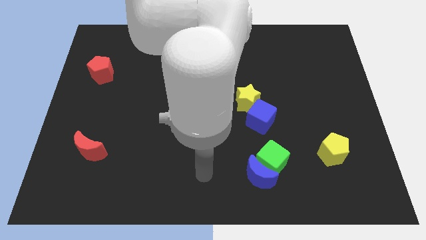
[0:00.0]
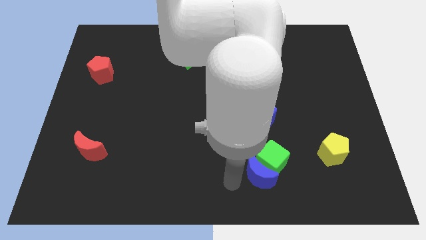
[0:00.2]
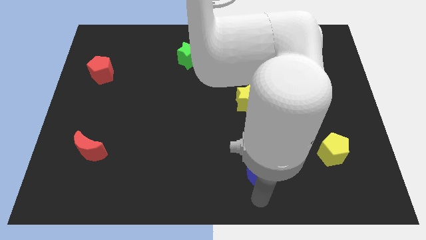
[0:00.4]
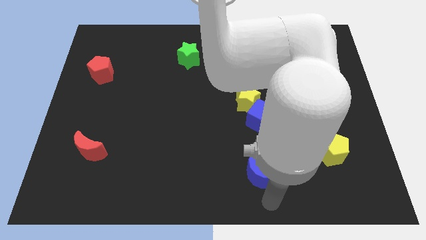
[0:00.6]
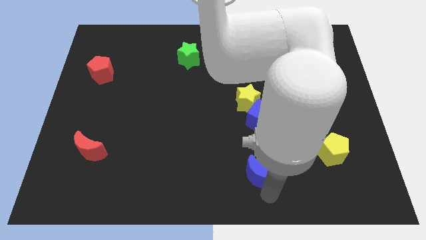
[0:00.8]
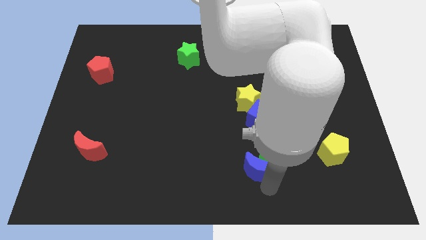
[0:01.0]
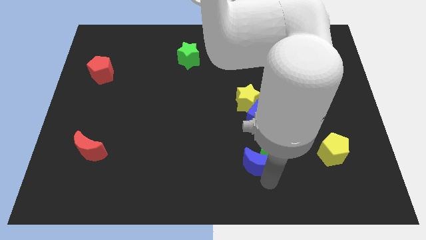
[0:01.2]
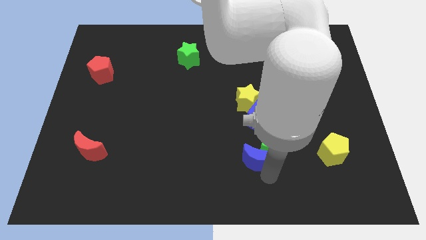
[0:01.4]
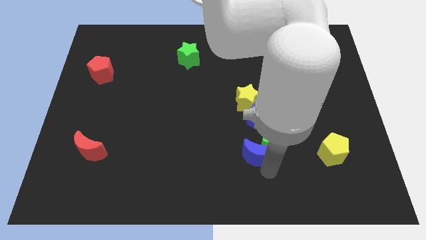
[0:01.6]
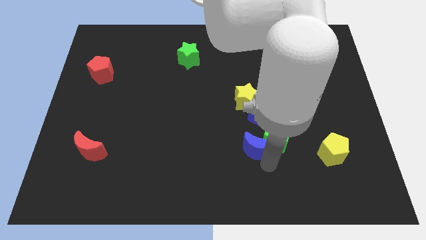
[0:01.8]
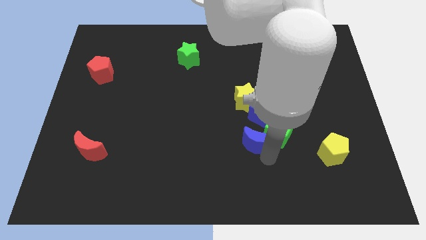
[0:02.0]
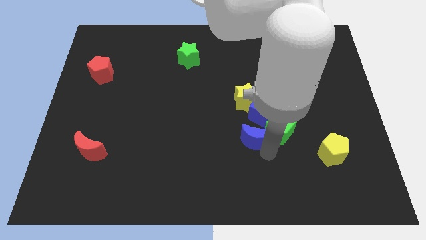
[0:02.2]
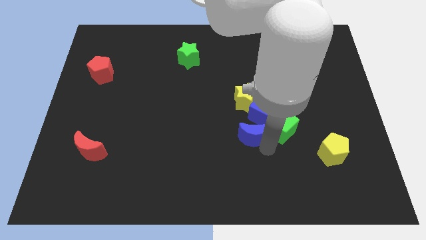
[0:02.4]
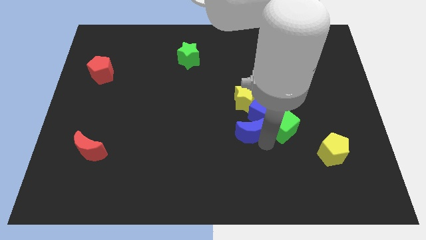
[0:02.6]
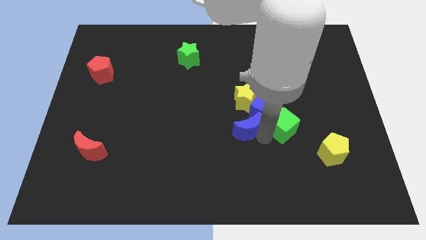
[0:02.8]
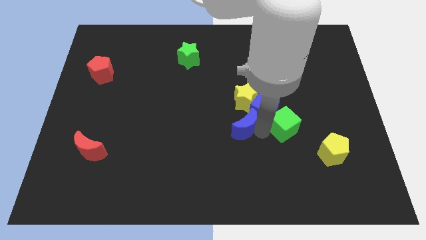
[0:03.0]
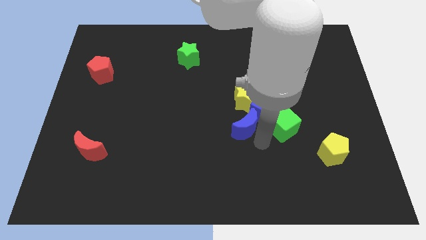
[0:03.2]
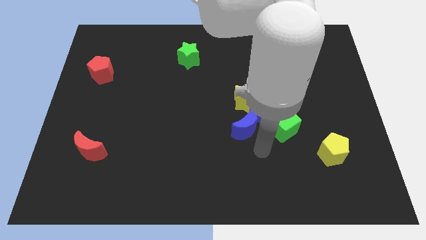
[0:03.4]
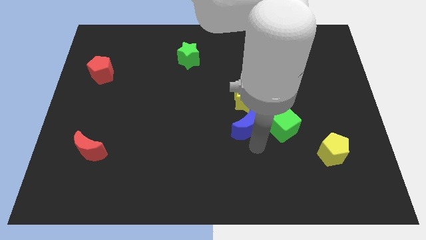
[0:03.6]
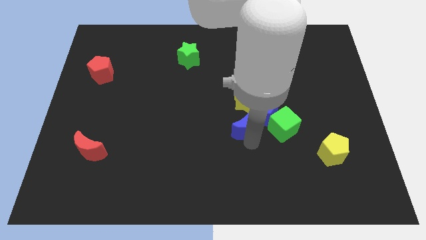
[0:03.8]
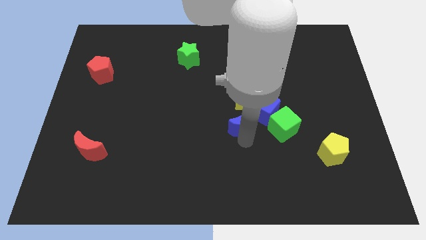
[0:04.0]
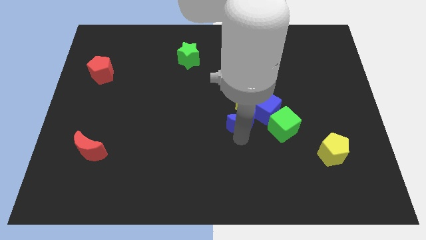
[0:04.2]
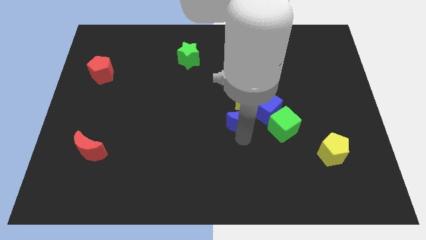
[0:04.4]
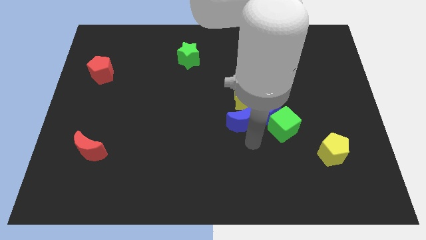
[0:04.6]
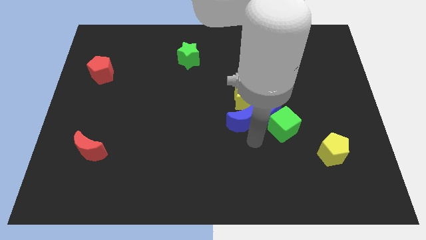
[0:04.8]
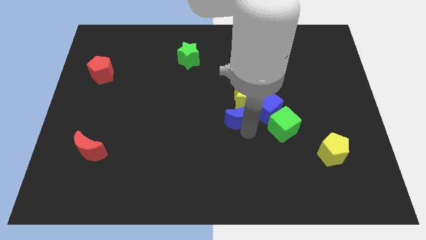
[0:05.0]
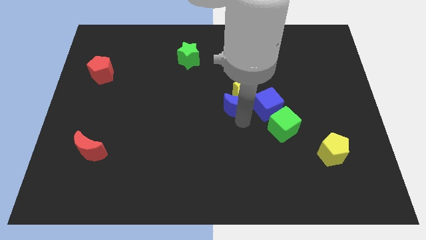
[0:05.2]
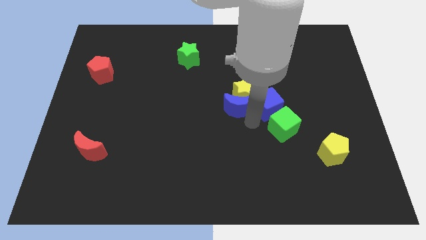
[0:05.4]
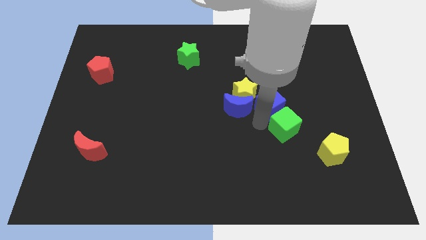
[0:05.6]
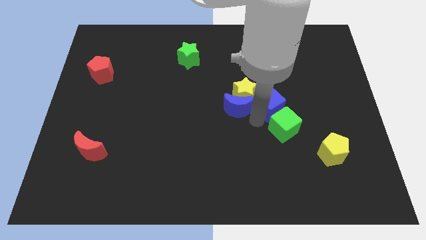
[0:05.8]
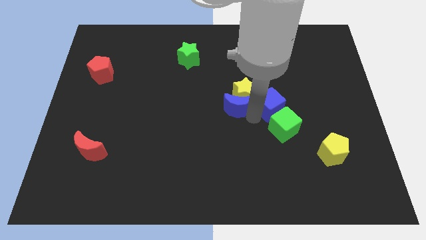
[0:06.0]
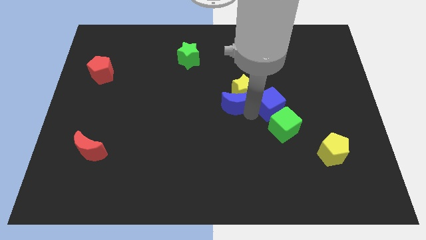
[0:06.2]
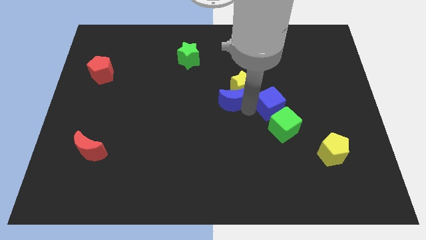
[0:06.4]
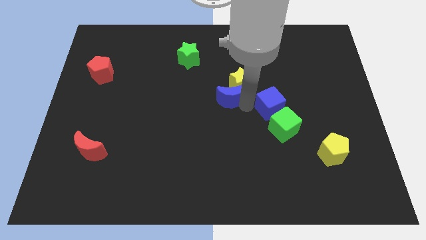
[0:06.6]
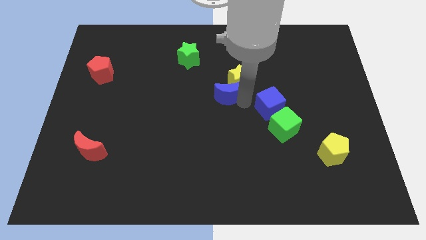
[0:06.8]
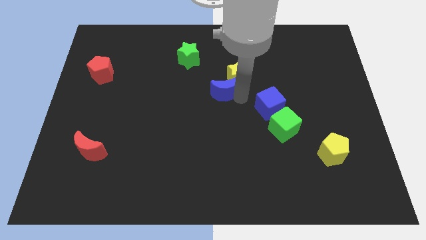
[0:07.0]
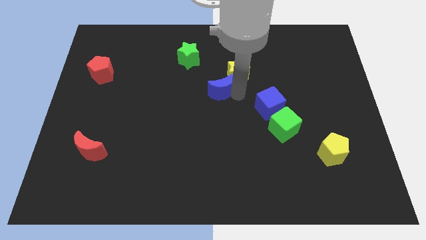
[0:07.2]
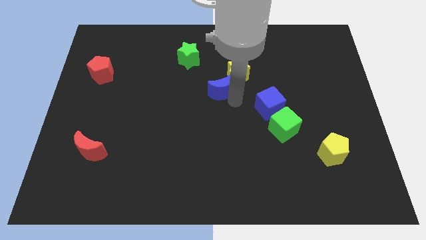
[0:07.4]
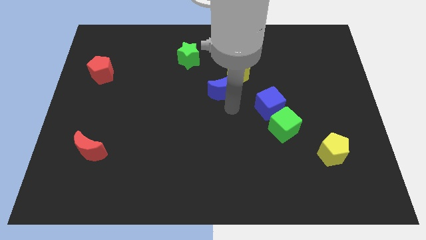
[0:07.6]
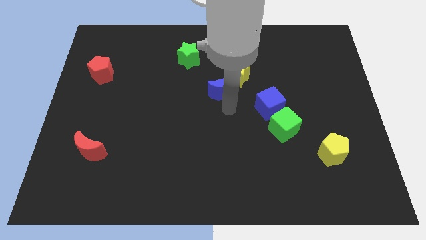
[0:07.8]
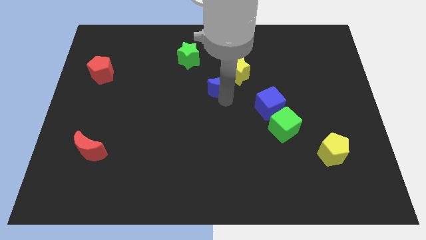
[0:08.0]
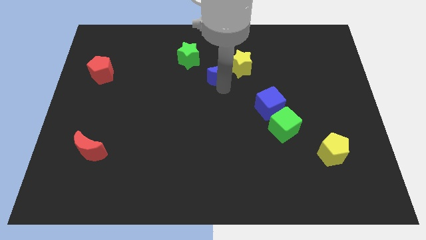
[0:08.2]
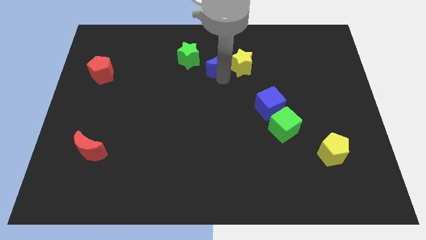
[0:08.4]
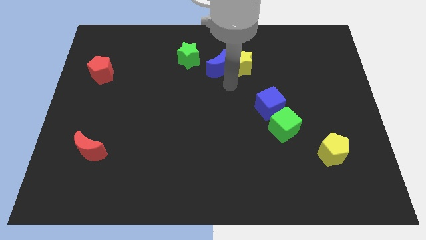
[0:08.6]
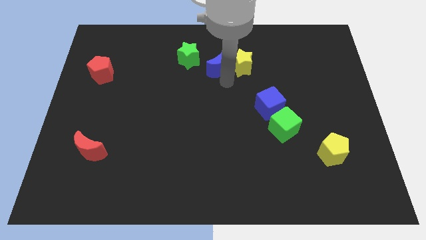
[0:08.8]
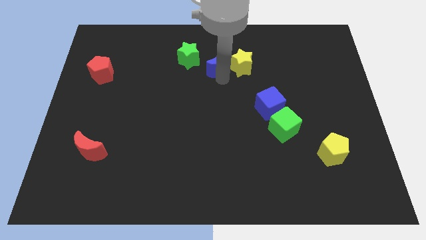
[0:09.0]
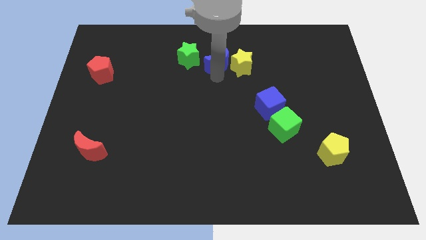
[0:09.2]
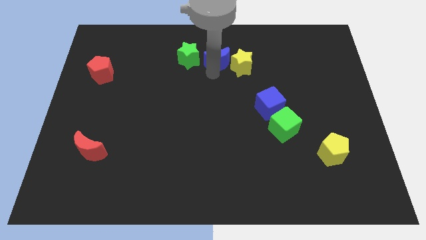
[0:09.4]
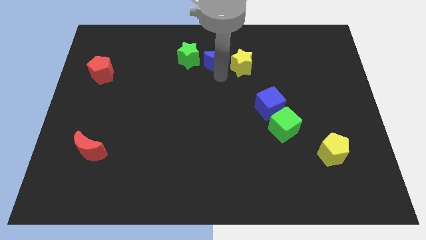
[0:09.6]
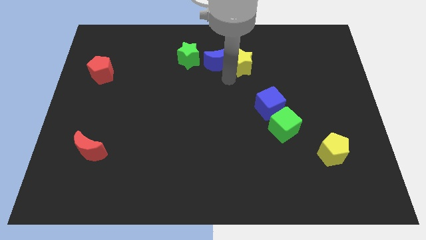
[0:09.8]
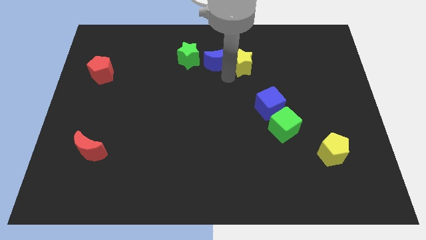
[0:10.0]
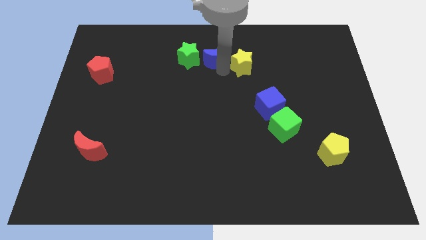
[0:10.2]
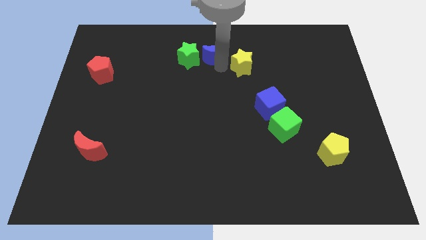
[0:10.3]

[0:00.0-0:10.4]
put the blue moon to the towards your base
